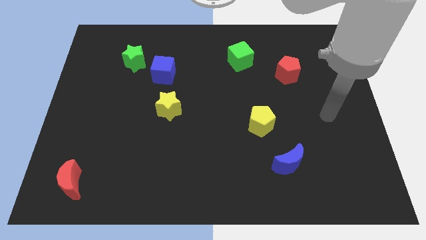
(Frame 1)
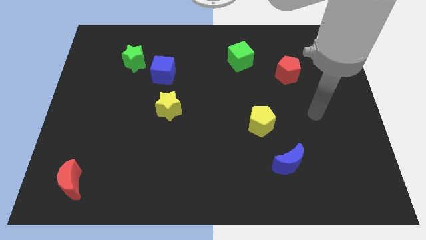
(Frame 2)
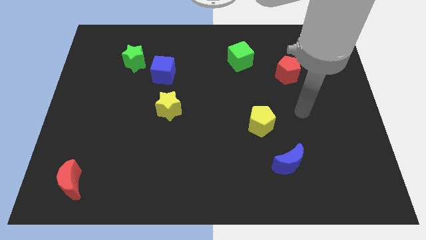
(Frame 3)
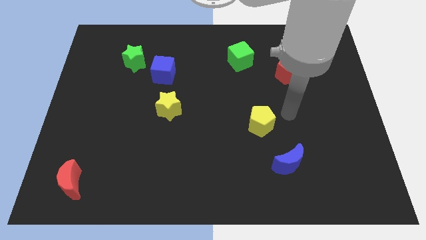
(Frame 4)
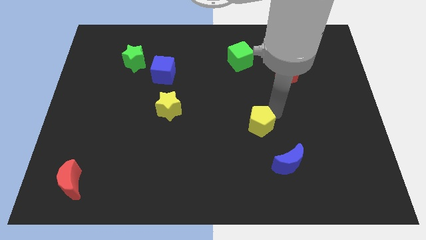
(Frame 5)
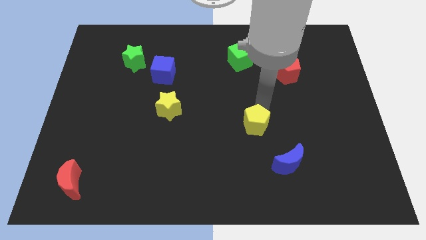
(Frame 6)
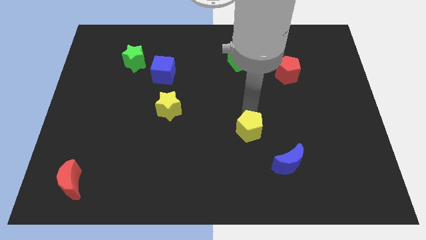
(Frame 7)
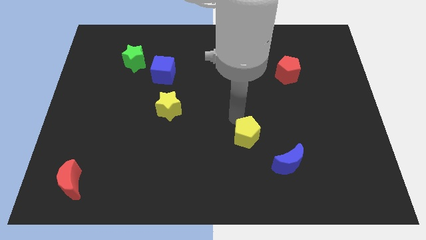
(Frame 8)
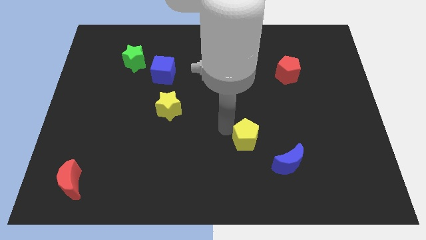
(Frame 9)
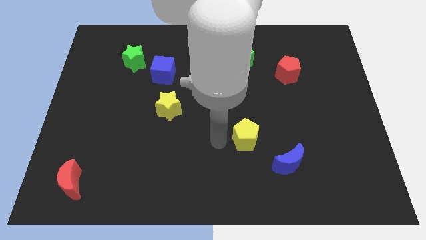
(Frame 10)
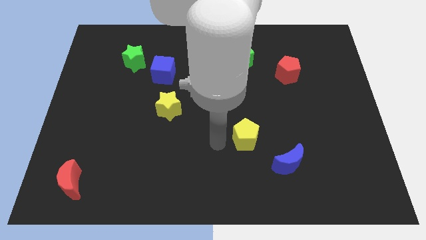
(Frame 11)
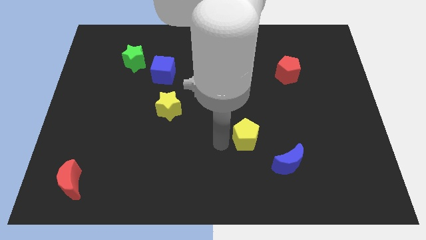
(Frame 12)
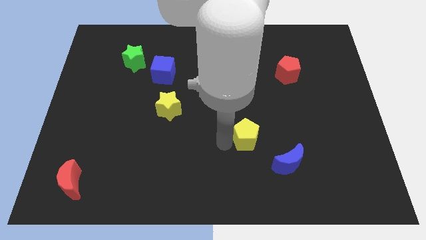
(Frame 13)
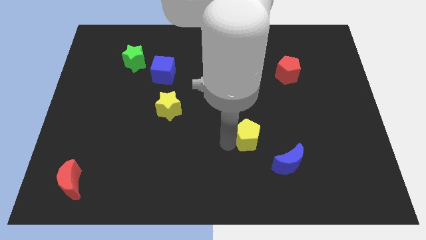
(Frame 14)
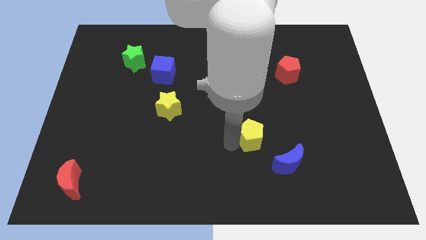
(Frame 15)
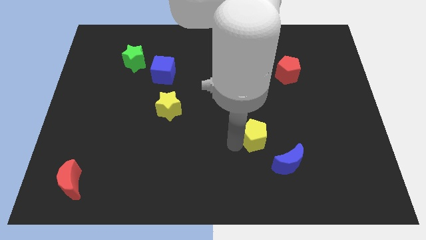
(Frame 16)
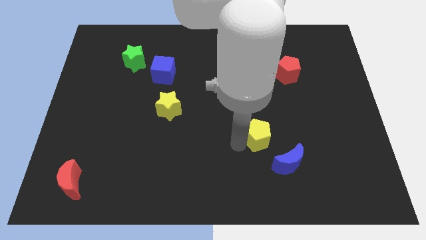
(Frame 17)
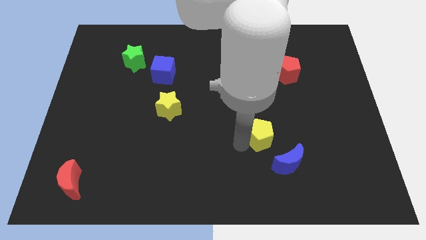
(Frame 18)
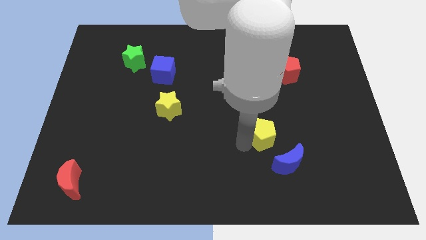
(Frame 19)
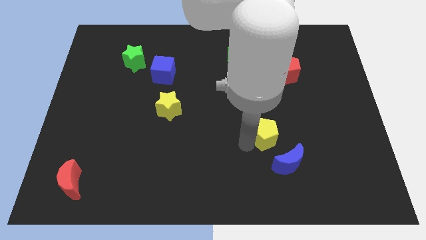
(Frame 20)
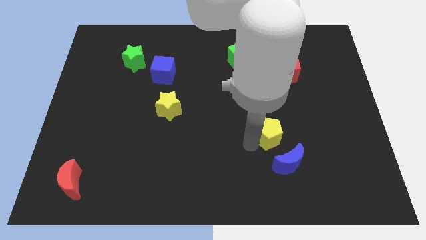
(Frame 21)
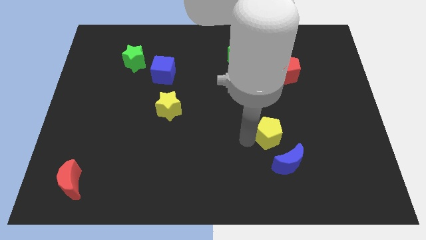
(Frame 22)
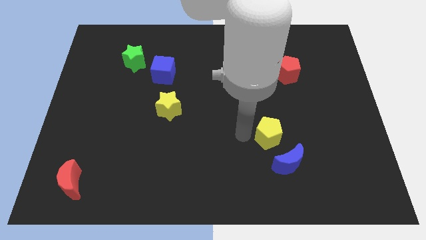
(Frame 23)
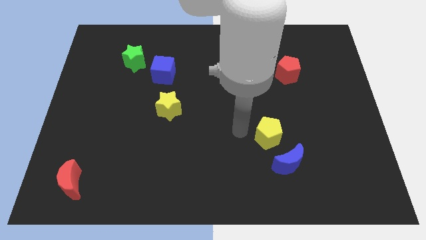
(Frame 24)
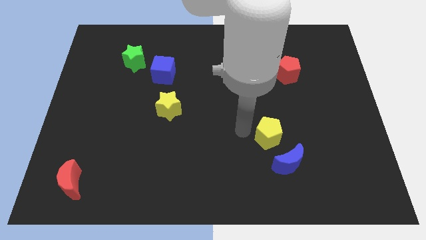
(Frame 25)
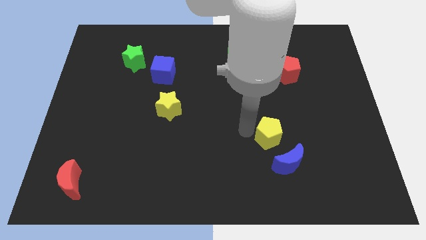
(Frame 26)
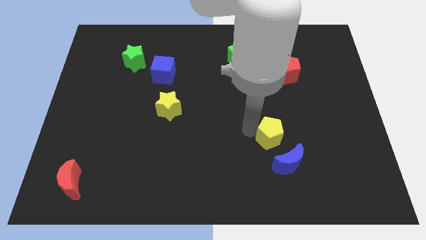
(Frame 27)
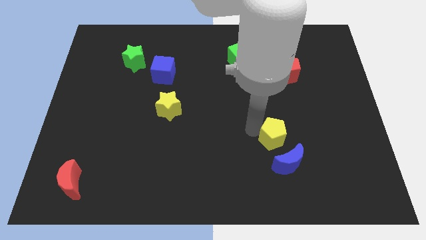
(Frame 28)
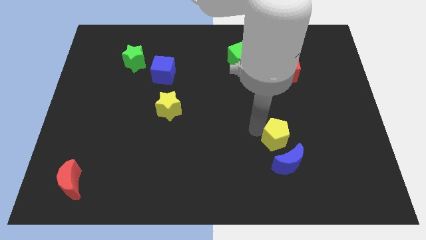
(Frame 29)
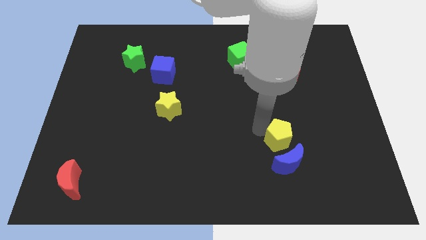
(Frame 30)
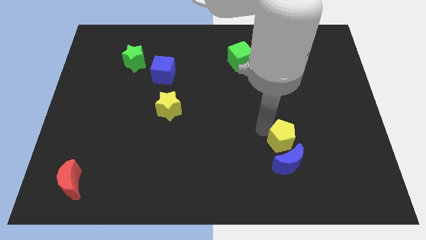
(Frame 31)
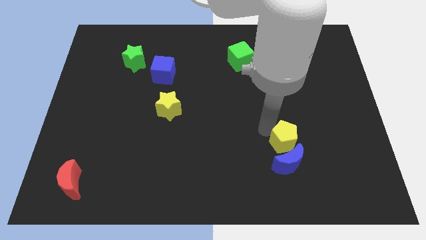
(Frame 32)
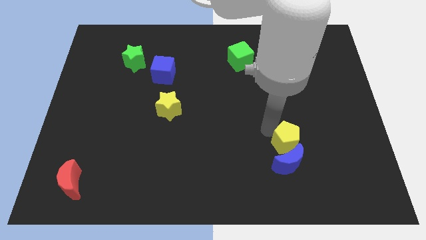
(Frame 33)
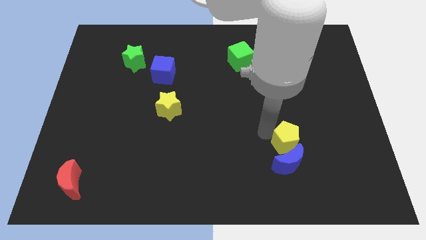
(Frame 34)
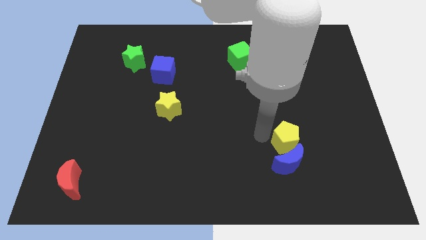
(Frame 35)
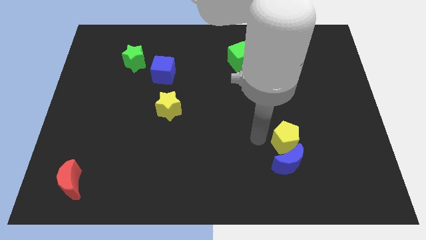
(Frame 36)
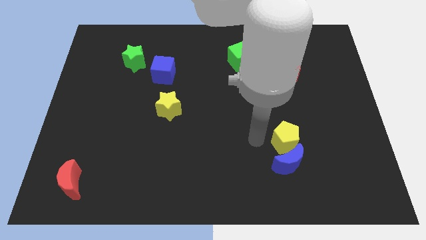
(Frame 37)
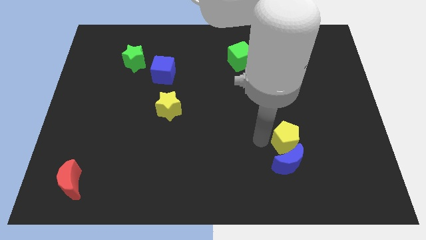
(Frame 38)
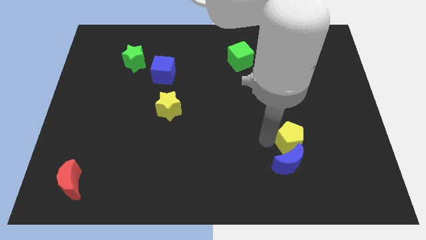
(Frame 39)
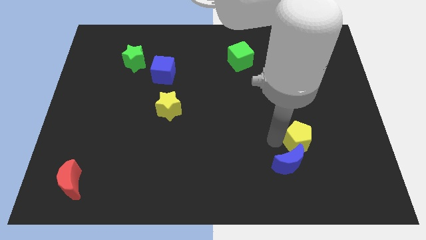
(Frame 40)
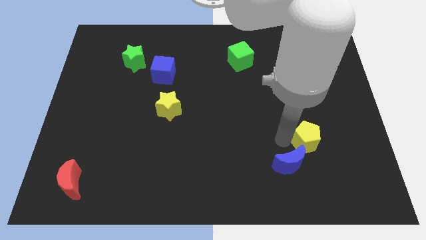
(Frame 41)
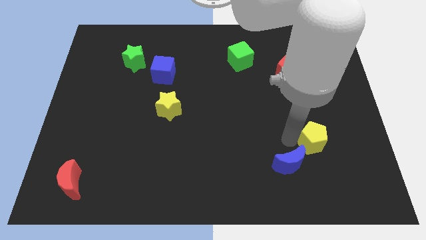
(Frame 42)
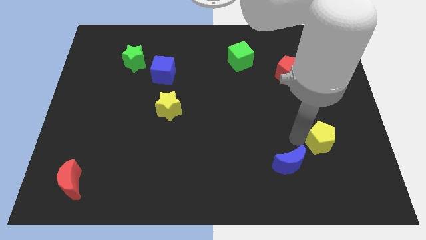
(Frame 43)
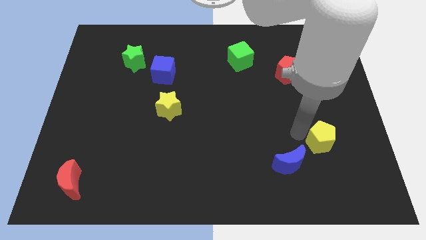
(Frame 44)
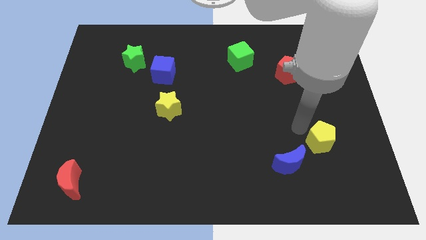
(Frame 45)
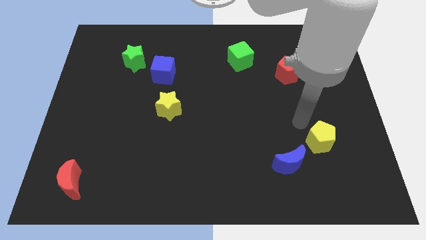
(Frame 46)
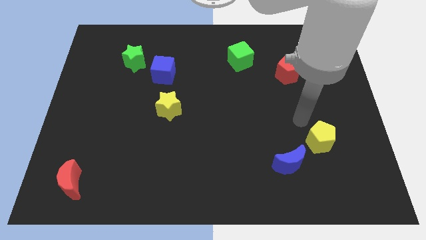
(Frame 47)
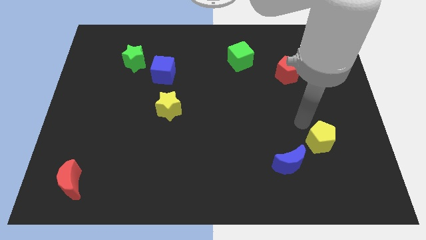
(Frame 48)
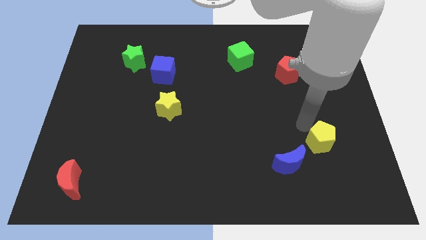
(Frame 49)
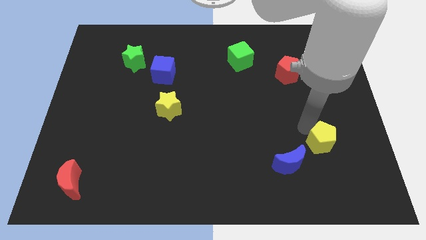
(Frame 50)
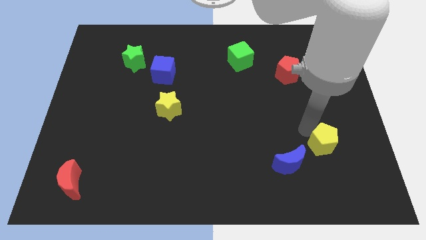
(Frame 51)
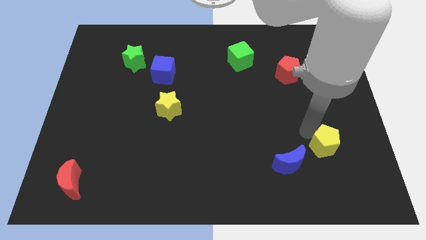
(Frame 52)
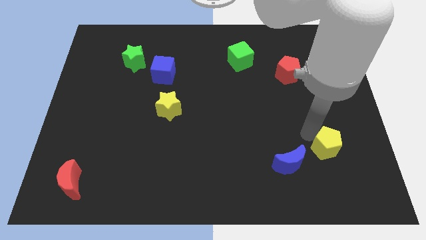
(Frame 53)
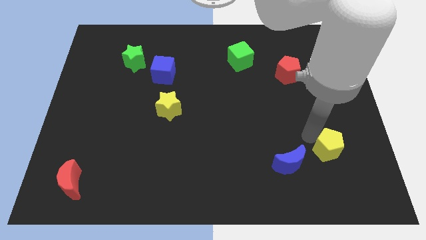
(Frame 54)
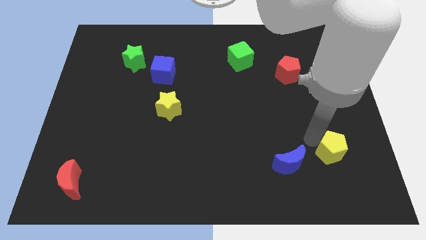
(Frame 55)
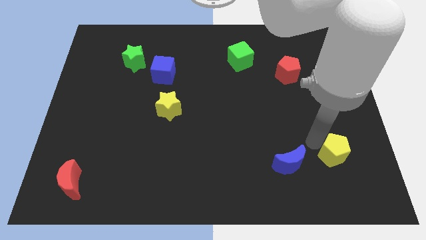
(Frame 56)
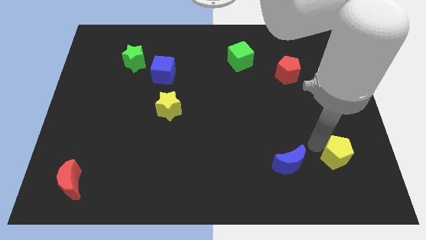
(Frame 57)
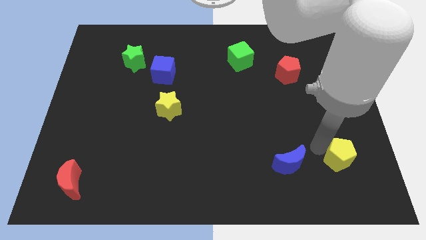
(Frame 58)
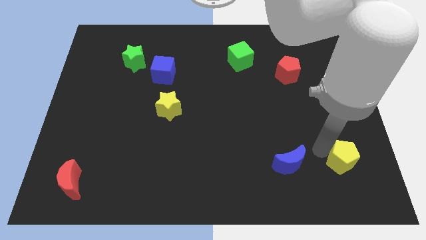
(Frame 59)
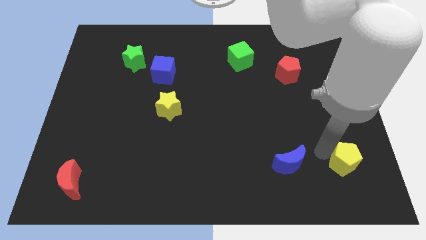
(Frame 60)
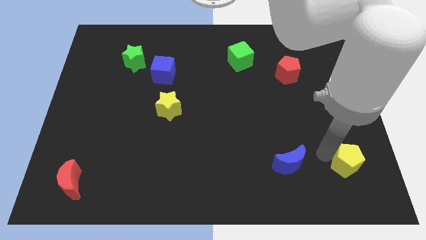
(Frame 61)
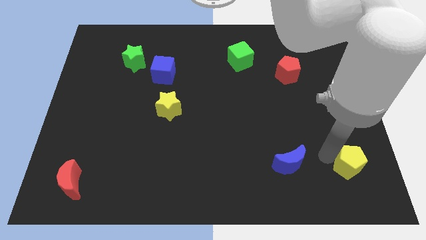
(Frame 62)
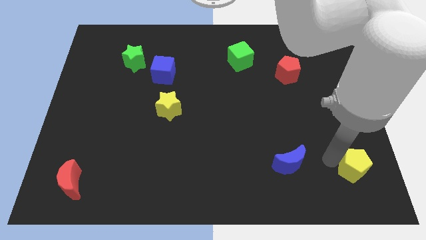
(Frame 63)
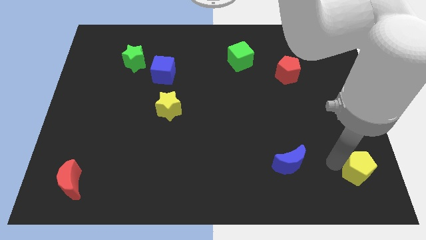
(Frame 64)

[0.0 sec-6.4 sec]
move the yellow pentagon to the bottom right corner

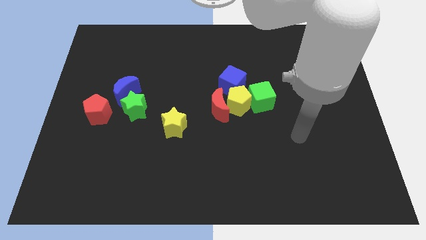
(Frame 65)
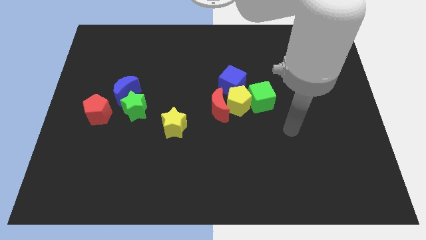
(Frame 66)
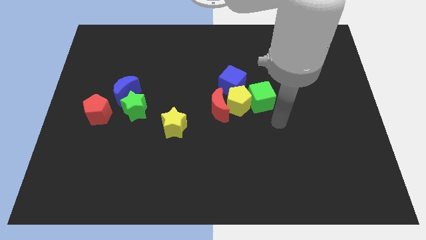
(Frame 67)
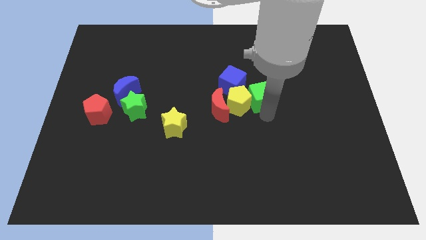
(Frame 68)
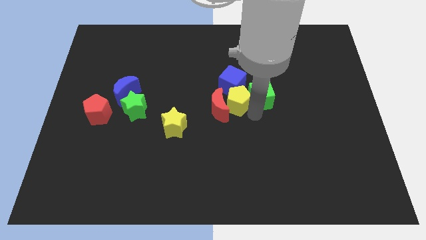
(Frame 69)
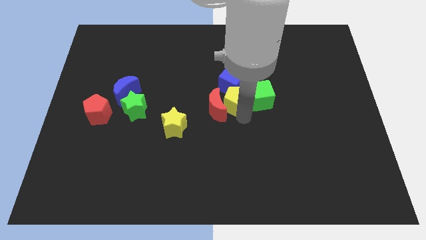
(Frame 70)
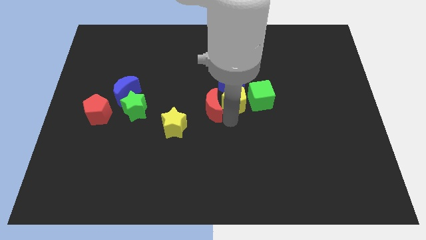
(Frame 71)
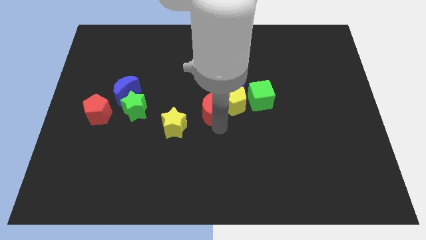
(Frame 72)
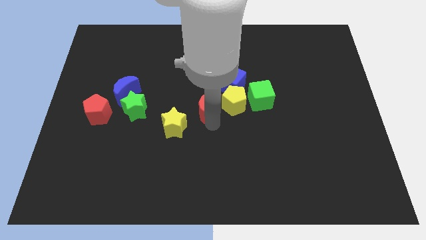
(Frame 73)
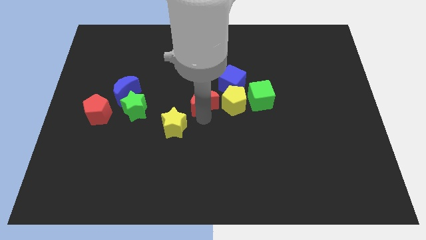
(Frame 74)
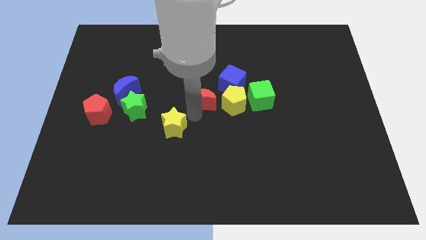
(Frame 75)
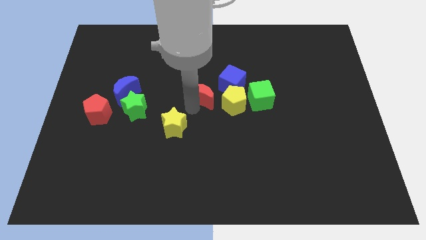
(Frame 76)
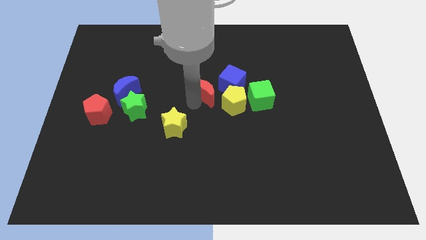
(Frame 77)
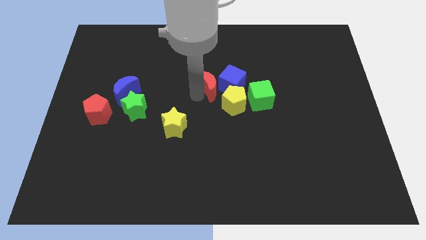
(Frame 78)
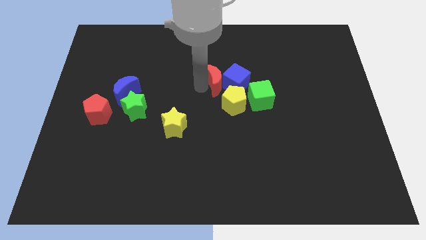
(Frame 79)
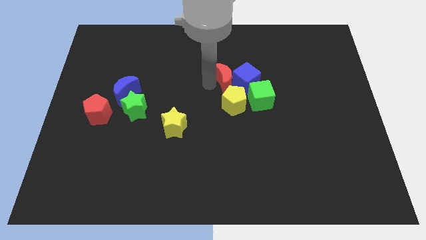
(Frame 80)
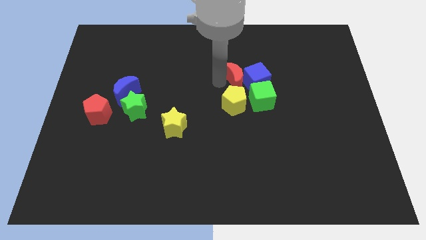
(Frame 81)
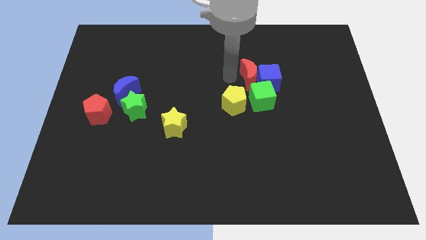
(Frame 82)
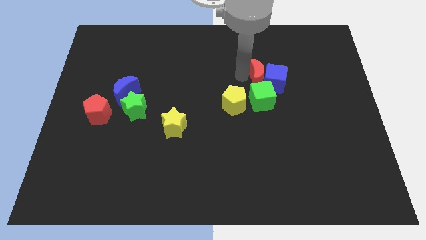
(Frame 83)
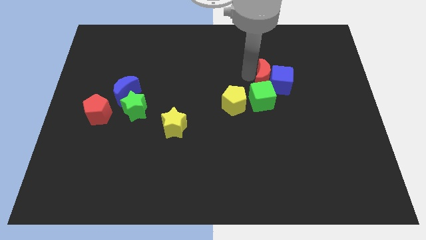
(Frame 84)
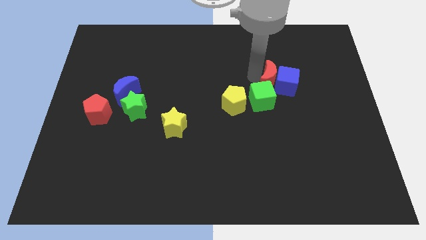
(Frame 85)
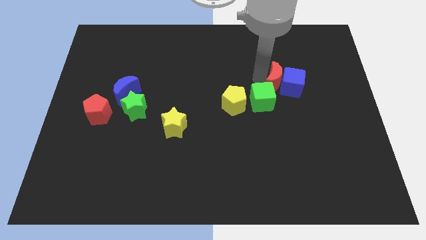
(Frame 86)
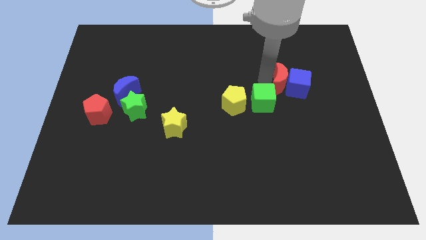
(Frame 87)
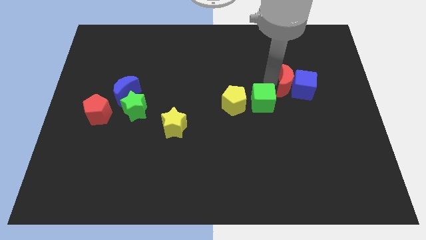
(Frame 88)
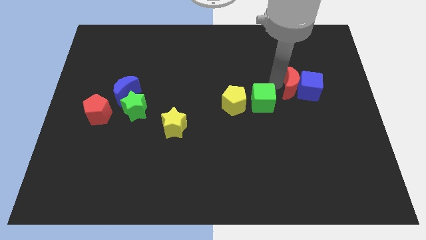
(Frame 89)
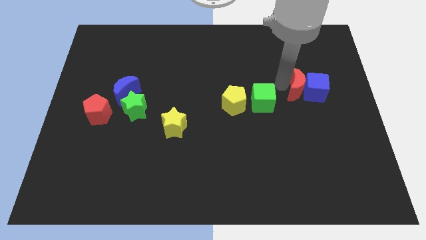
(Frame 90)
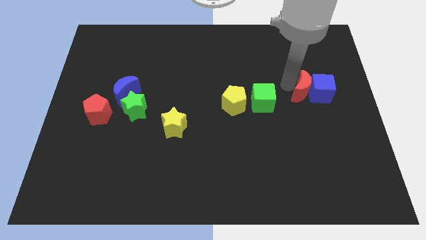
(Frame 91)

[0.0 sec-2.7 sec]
put the blue cube to the right side of the board
